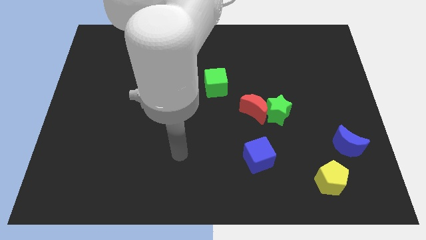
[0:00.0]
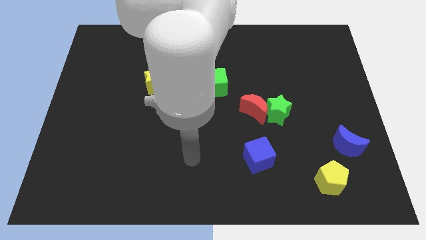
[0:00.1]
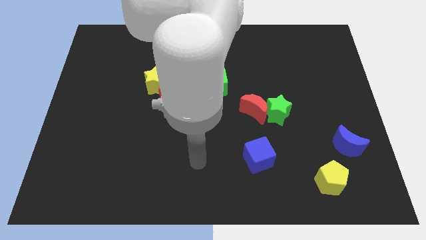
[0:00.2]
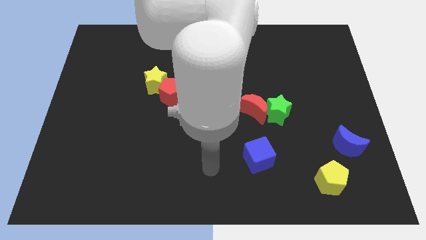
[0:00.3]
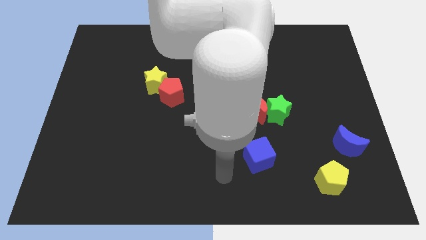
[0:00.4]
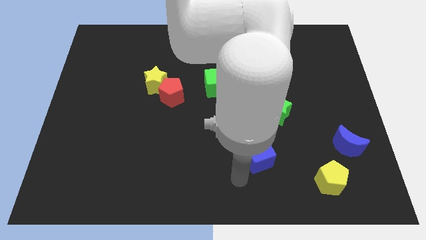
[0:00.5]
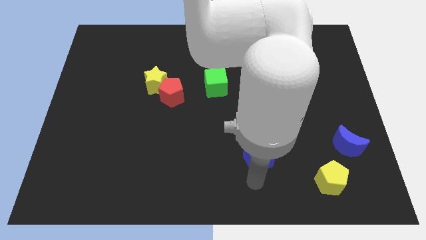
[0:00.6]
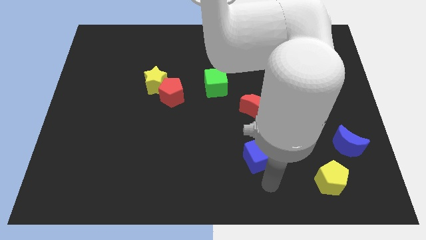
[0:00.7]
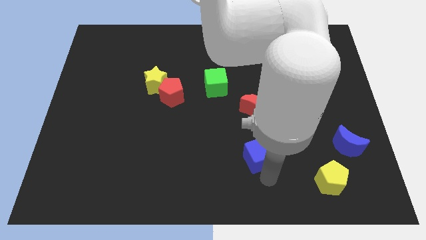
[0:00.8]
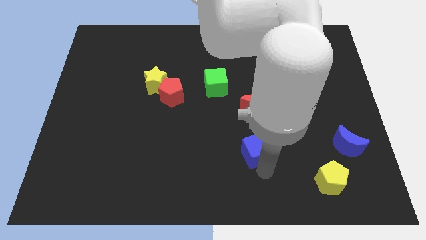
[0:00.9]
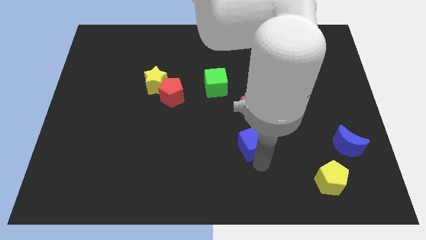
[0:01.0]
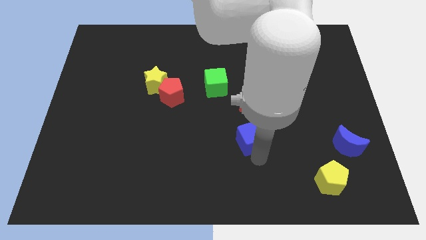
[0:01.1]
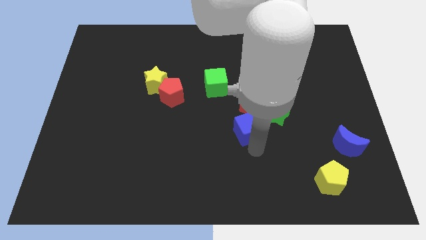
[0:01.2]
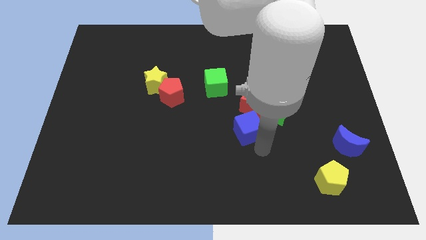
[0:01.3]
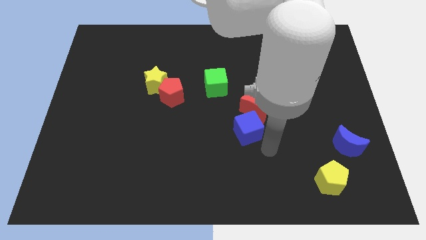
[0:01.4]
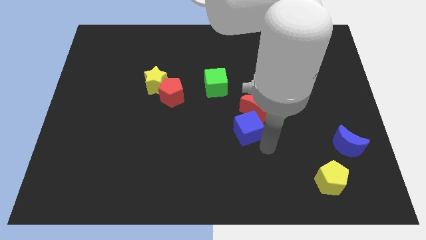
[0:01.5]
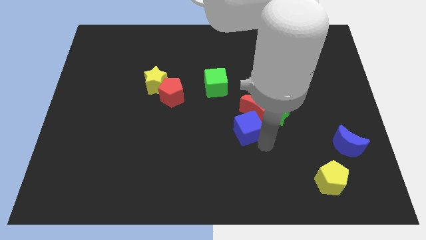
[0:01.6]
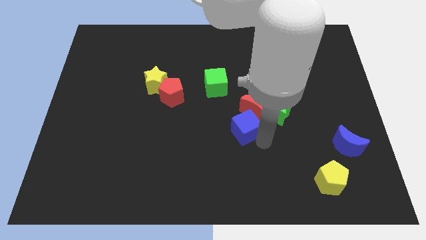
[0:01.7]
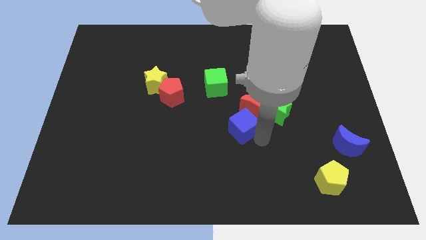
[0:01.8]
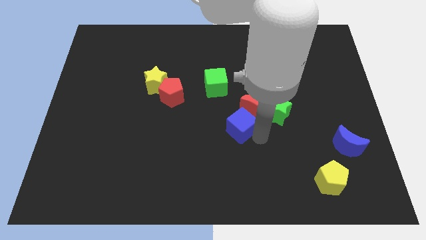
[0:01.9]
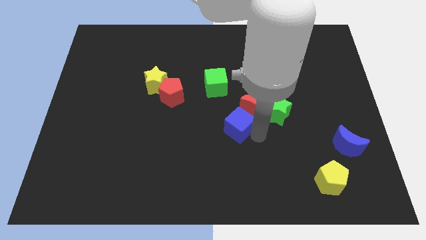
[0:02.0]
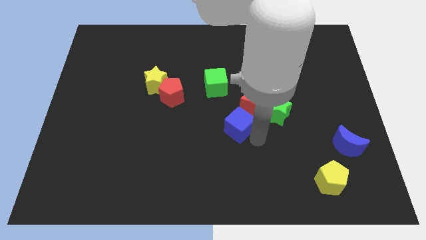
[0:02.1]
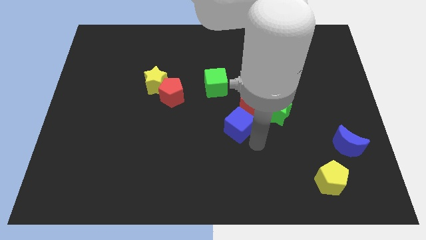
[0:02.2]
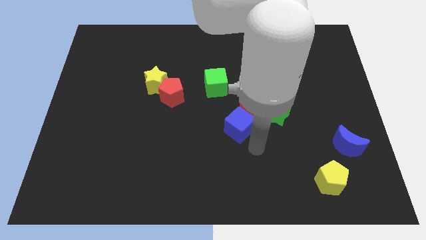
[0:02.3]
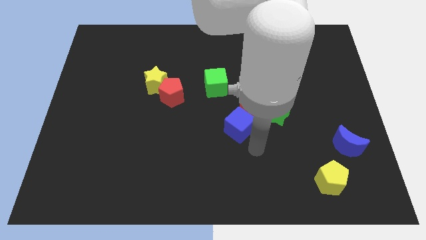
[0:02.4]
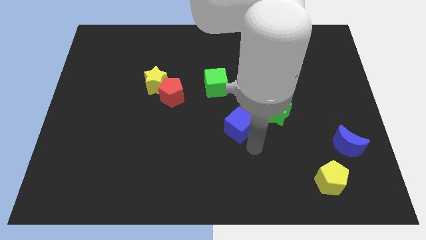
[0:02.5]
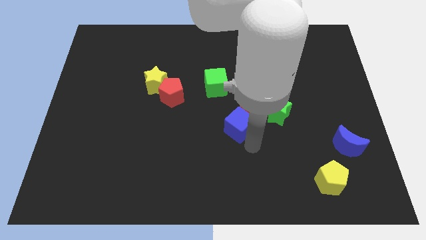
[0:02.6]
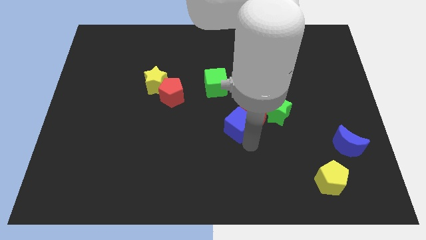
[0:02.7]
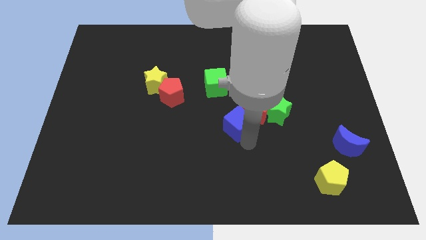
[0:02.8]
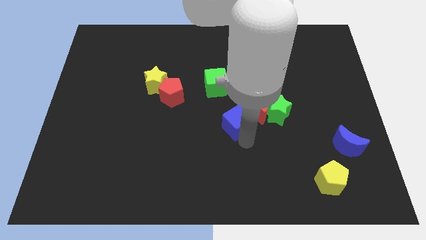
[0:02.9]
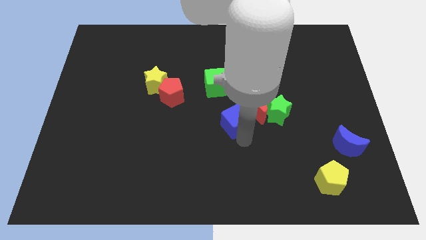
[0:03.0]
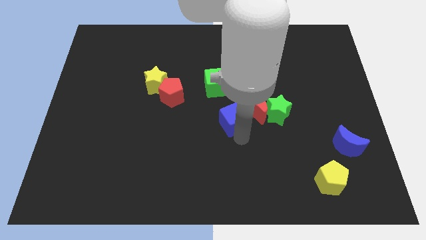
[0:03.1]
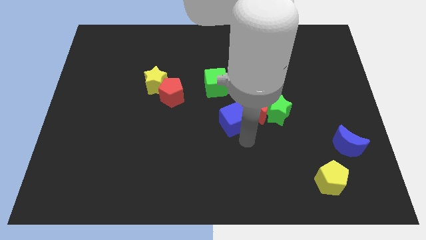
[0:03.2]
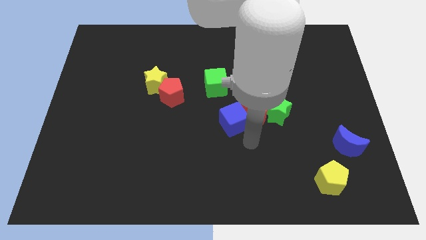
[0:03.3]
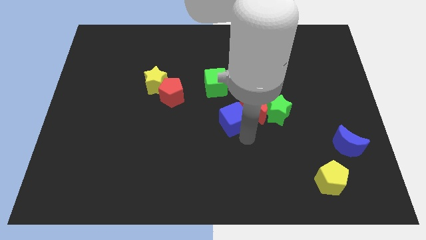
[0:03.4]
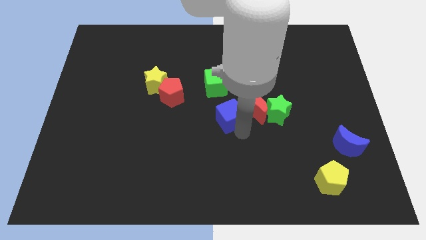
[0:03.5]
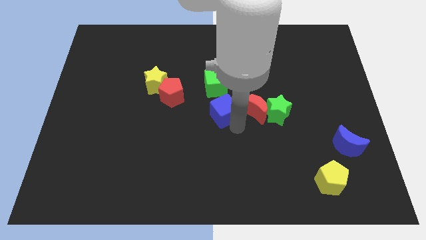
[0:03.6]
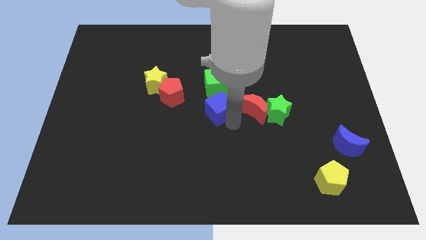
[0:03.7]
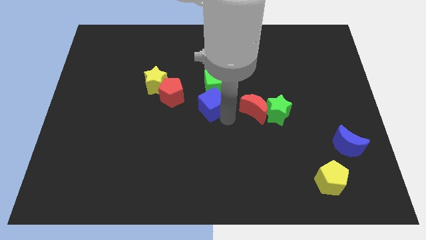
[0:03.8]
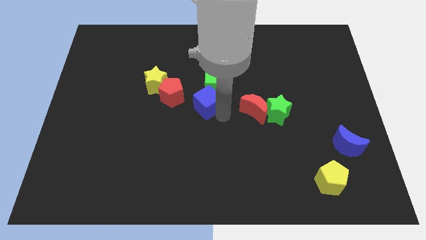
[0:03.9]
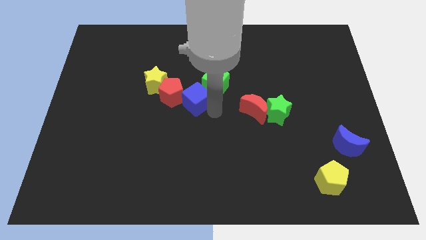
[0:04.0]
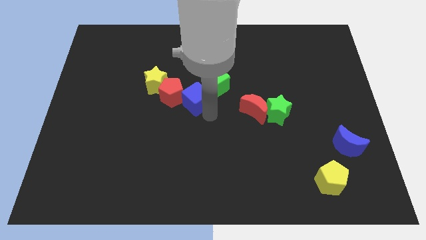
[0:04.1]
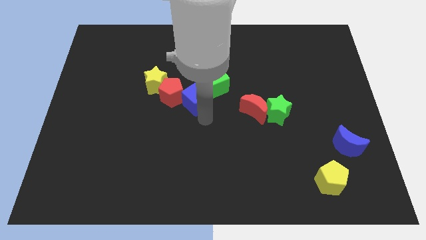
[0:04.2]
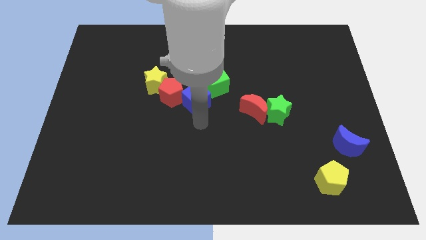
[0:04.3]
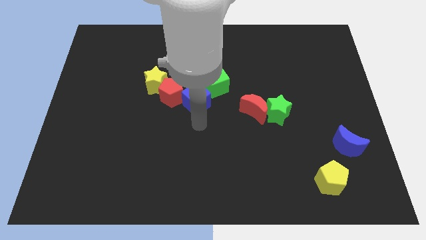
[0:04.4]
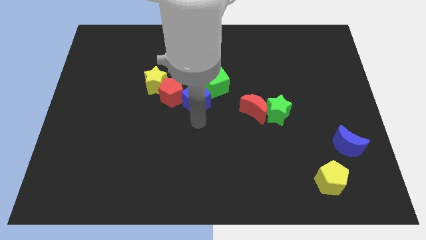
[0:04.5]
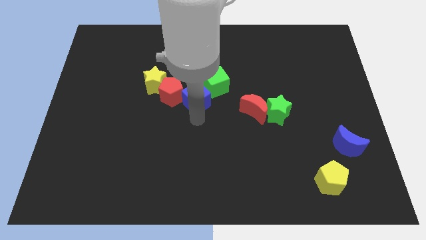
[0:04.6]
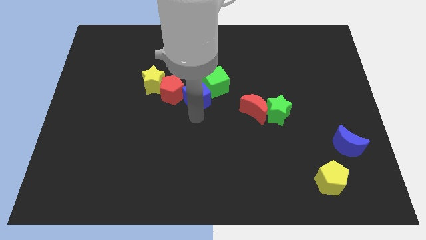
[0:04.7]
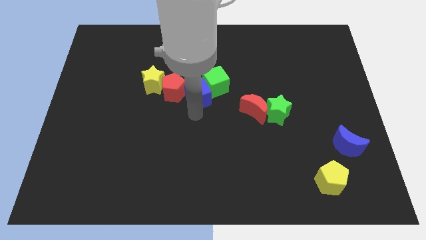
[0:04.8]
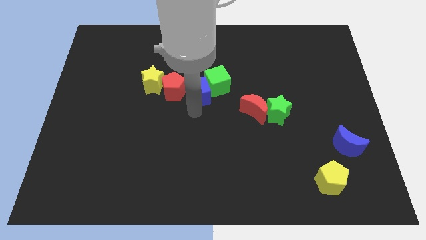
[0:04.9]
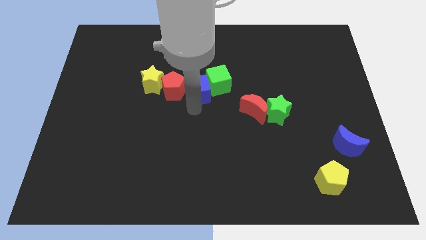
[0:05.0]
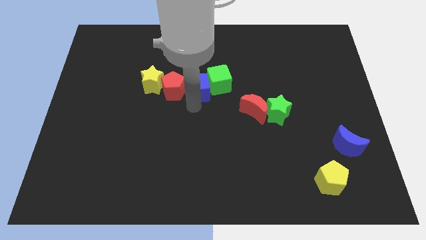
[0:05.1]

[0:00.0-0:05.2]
put the blue cube to the top right side of the red pentagon

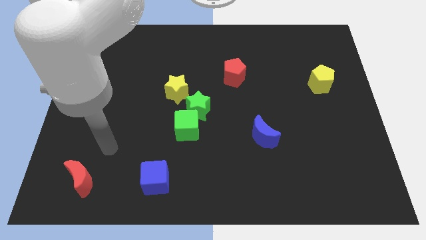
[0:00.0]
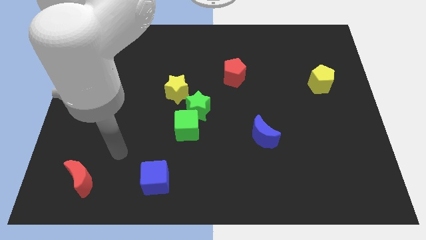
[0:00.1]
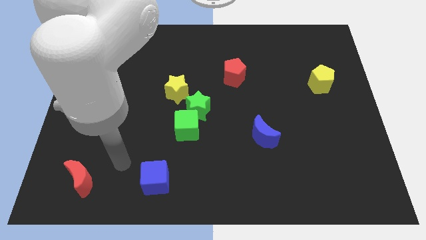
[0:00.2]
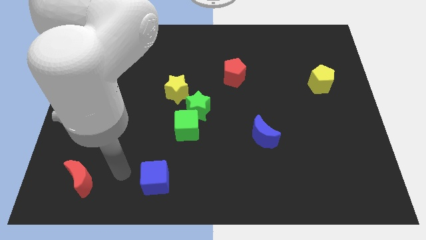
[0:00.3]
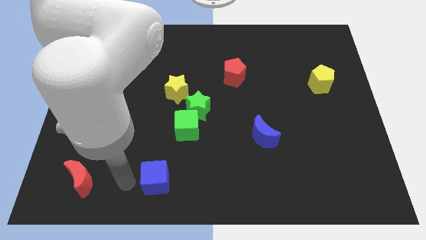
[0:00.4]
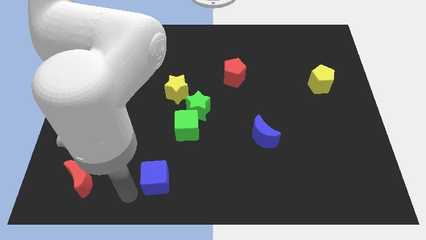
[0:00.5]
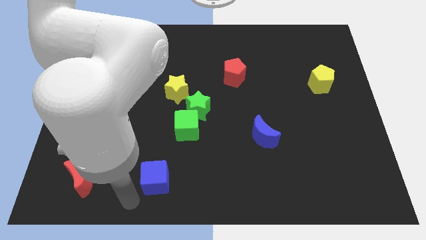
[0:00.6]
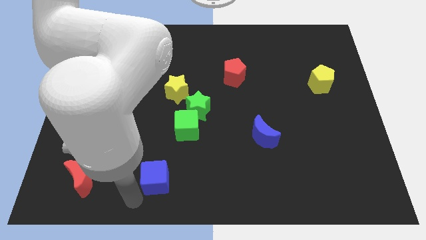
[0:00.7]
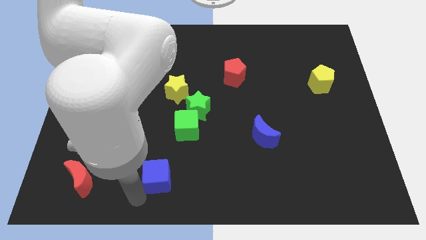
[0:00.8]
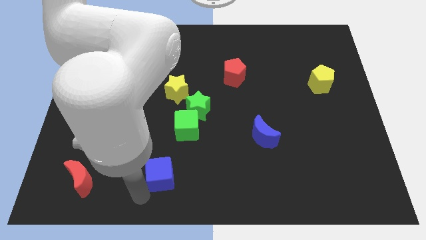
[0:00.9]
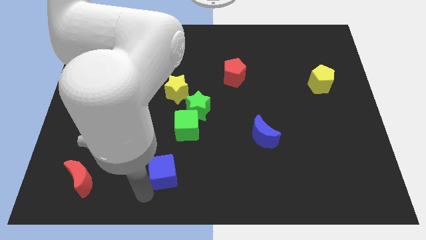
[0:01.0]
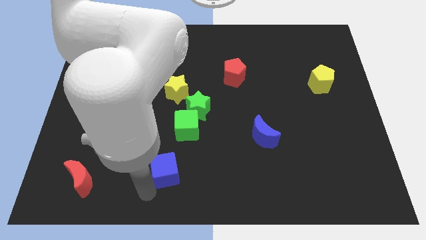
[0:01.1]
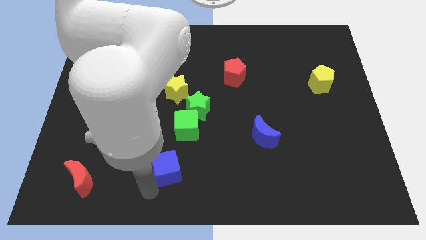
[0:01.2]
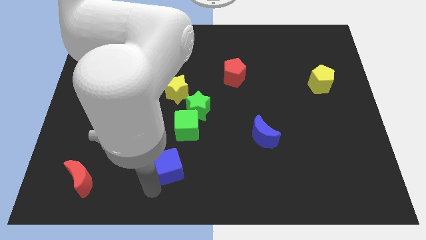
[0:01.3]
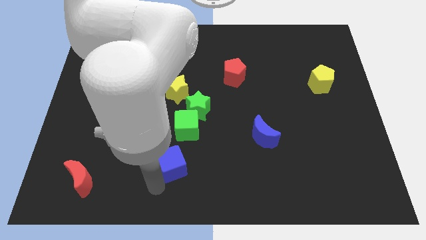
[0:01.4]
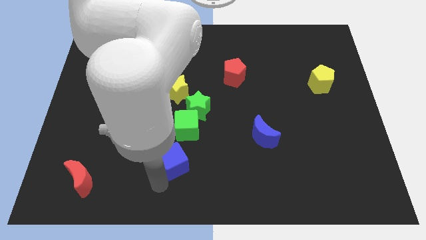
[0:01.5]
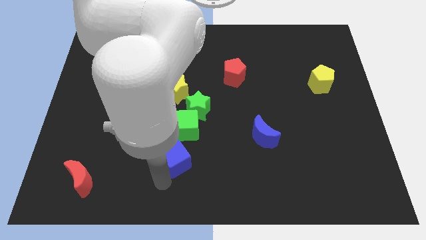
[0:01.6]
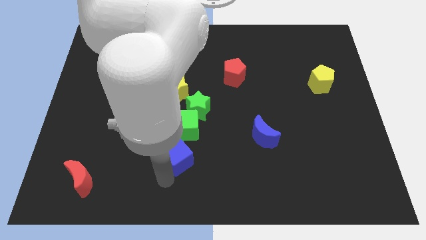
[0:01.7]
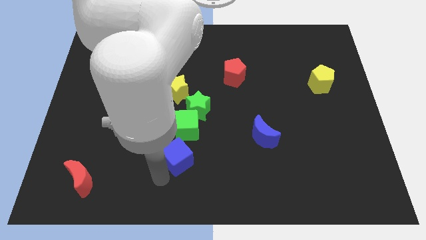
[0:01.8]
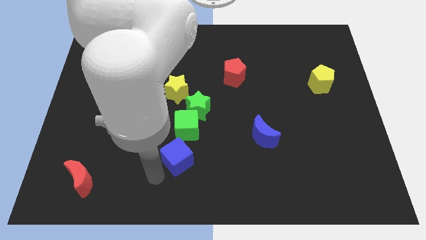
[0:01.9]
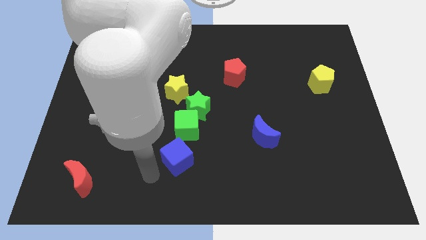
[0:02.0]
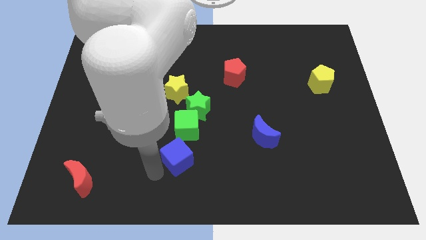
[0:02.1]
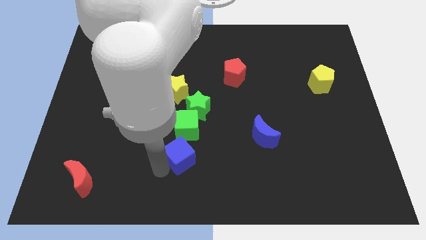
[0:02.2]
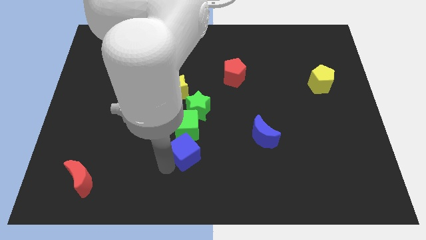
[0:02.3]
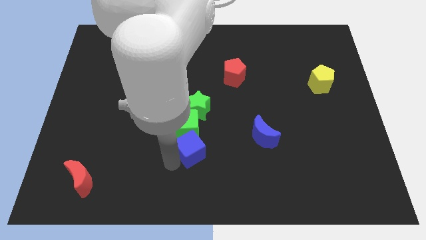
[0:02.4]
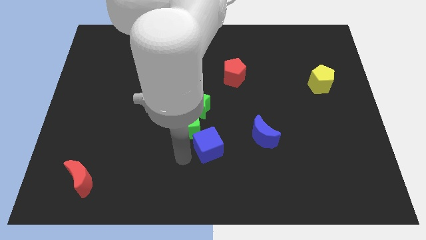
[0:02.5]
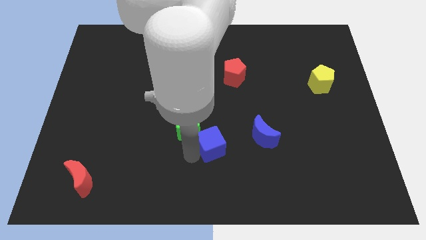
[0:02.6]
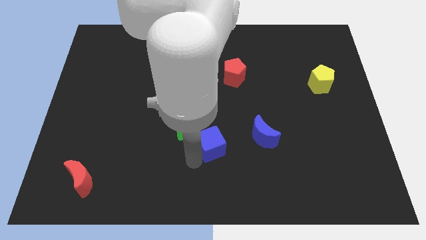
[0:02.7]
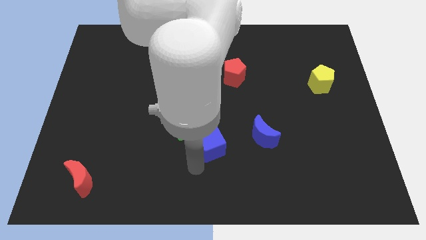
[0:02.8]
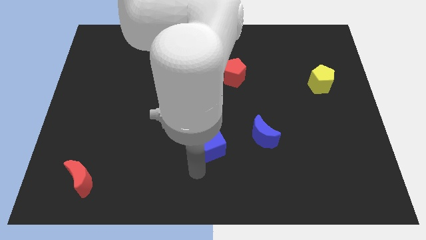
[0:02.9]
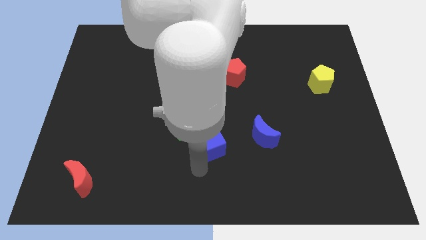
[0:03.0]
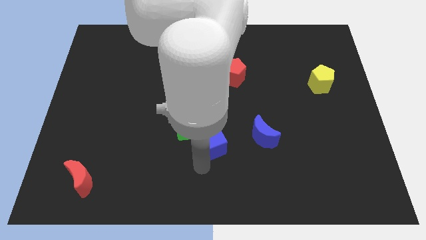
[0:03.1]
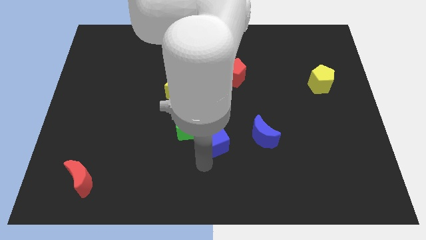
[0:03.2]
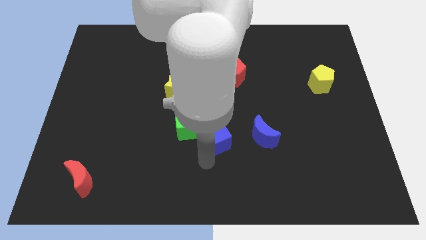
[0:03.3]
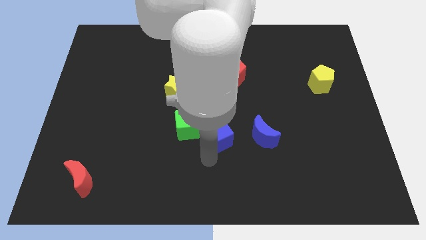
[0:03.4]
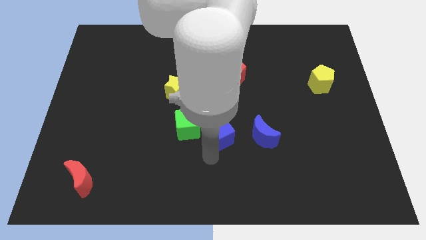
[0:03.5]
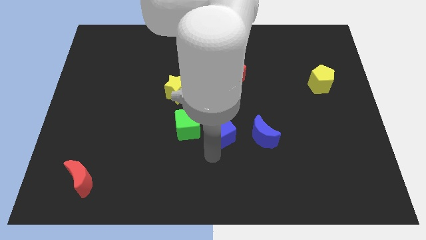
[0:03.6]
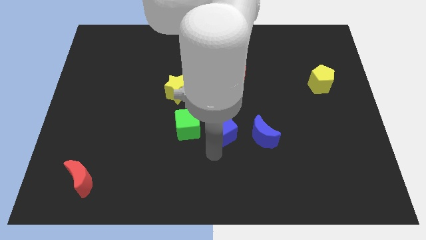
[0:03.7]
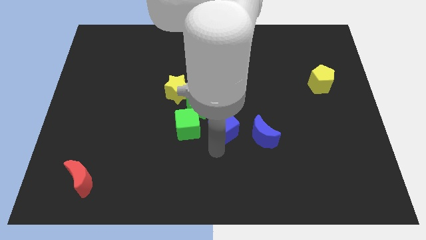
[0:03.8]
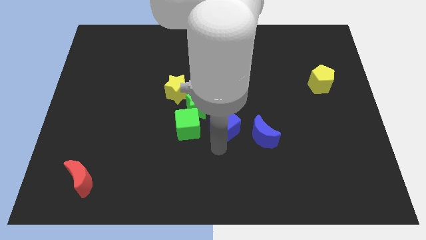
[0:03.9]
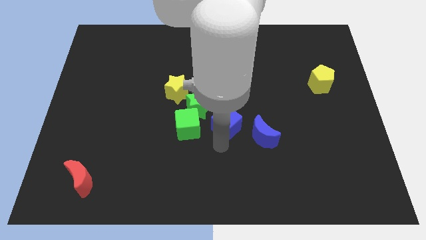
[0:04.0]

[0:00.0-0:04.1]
put the blue cube to the right side of the green star
